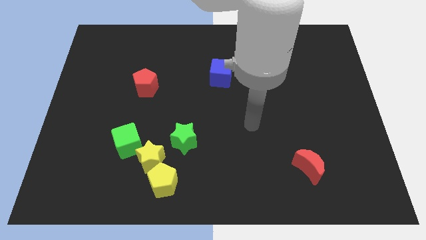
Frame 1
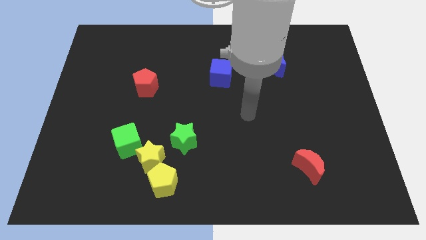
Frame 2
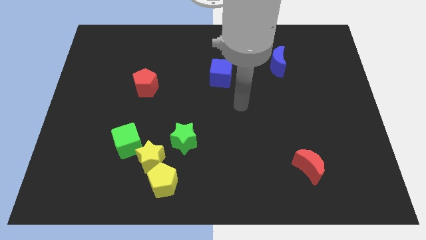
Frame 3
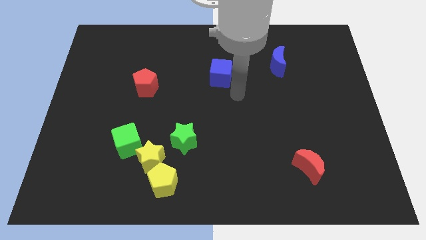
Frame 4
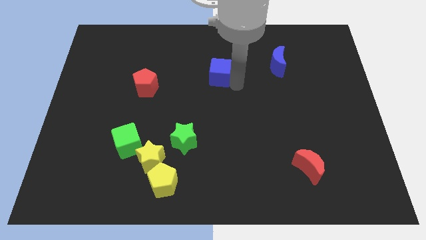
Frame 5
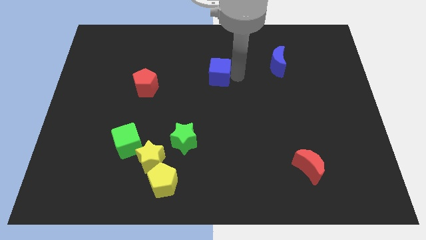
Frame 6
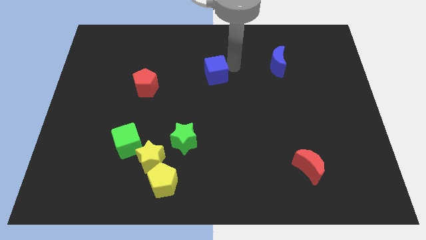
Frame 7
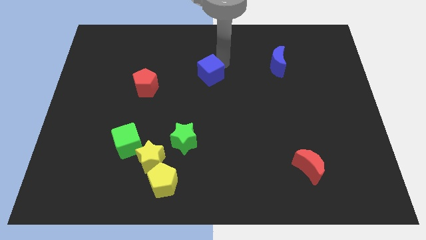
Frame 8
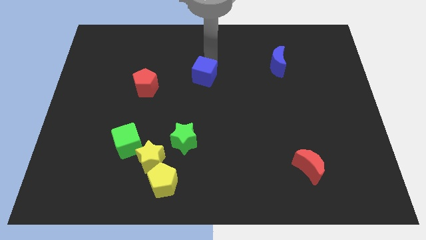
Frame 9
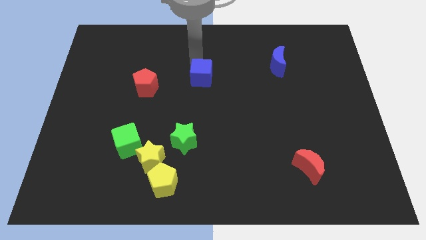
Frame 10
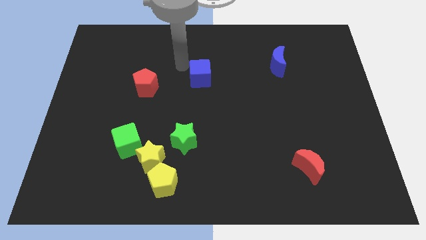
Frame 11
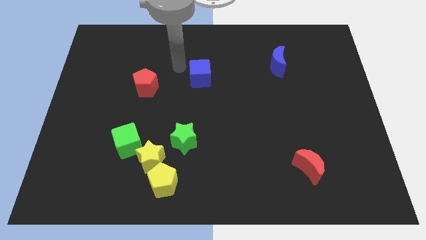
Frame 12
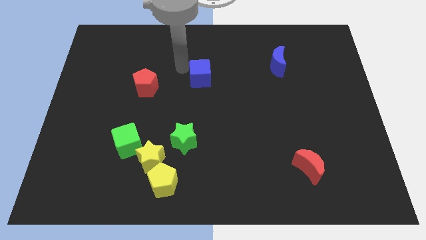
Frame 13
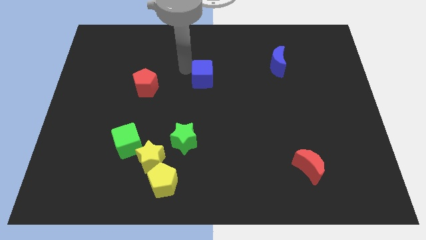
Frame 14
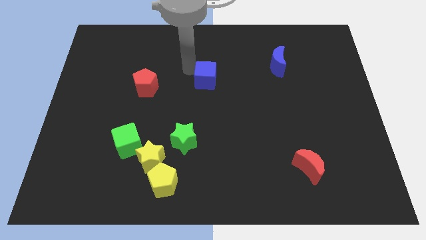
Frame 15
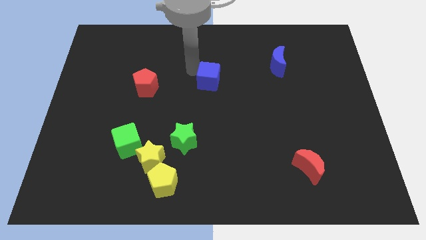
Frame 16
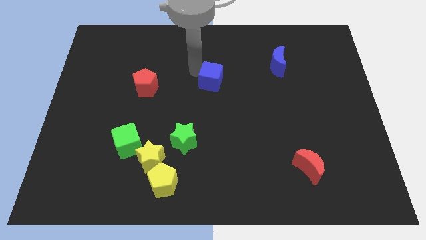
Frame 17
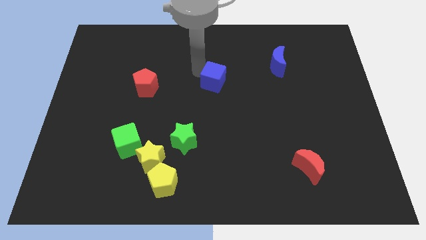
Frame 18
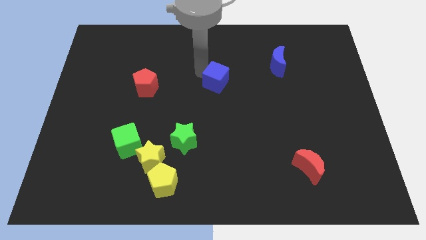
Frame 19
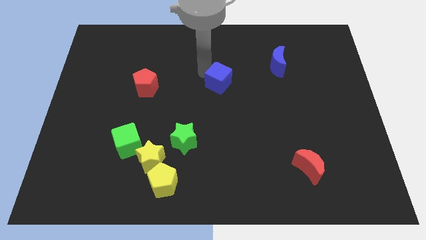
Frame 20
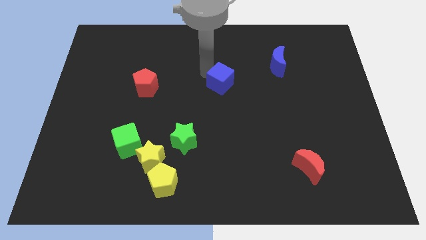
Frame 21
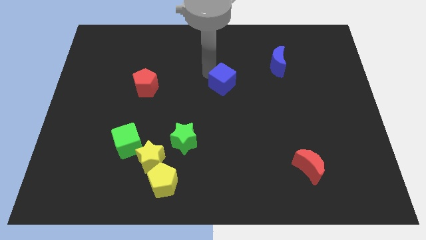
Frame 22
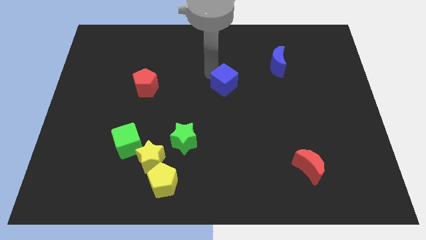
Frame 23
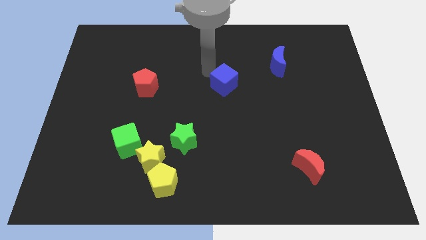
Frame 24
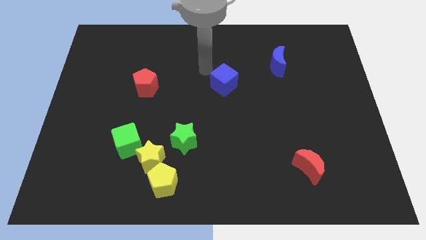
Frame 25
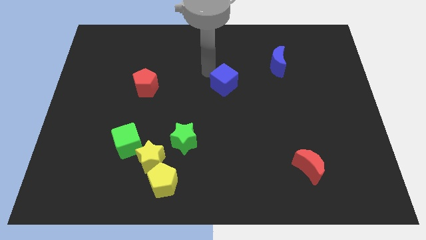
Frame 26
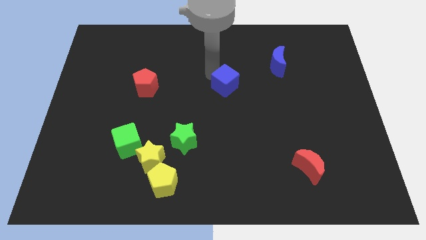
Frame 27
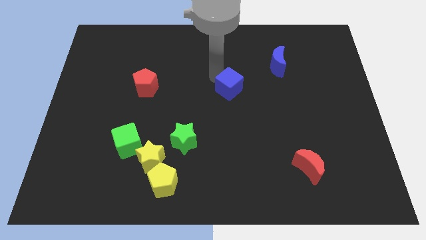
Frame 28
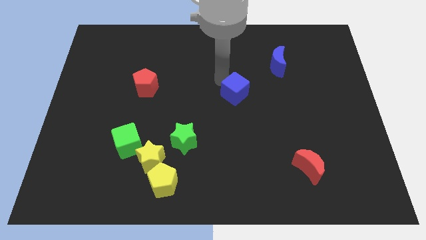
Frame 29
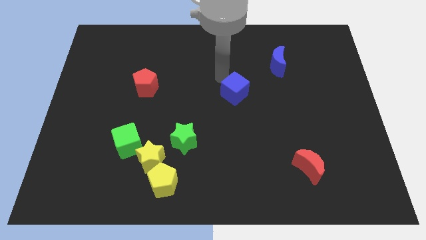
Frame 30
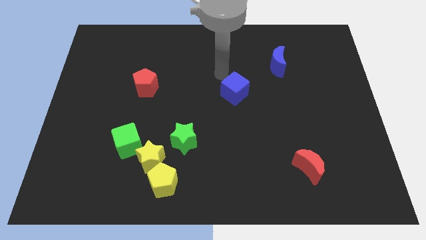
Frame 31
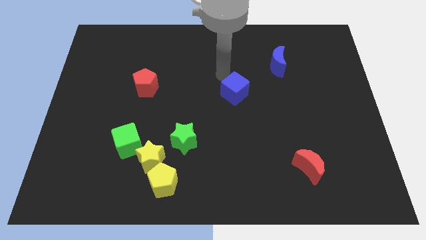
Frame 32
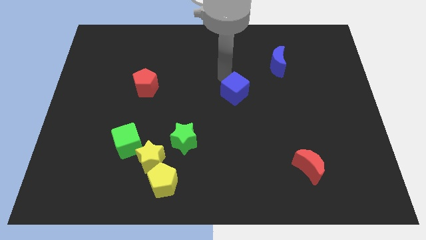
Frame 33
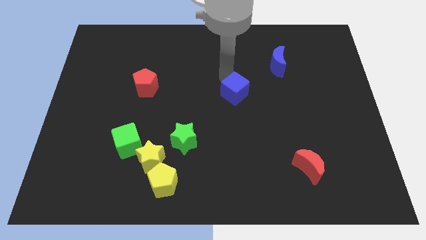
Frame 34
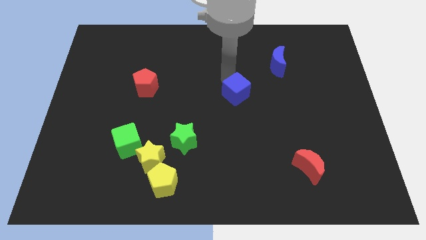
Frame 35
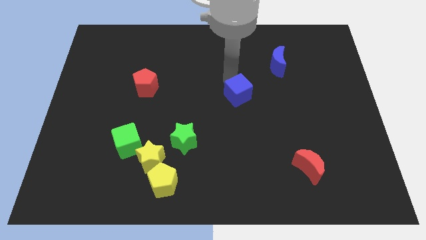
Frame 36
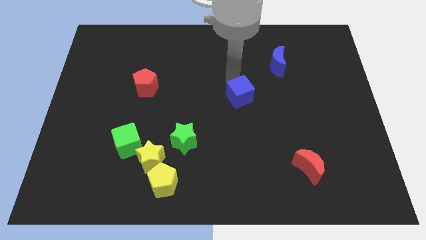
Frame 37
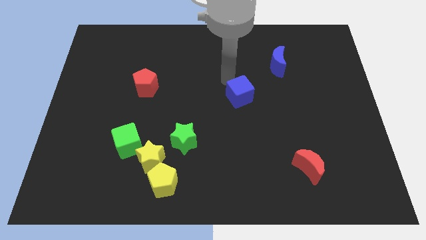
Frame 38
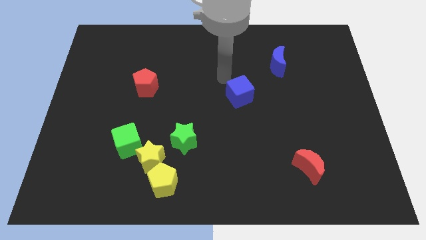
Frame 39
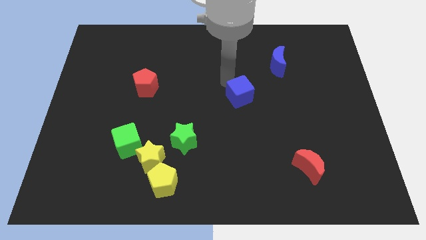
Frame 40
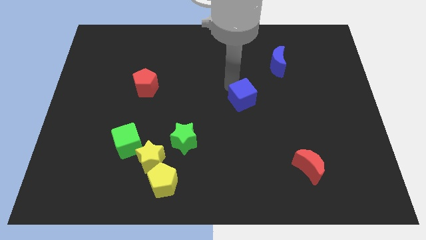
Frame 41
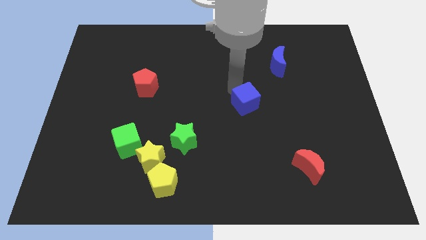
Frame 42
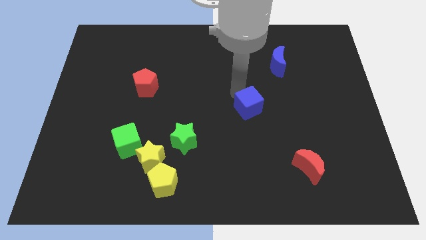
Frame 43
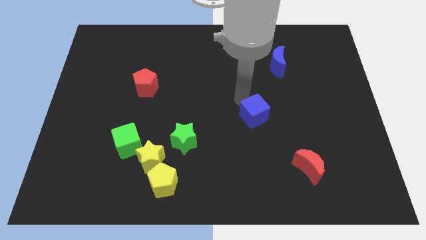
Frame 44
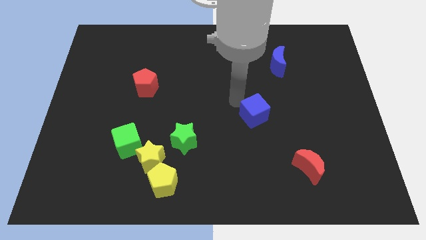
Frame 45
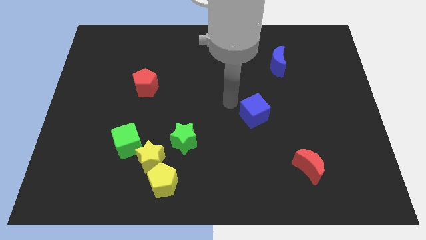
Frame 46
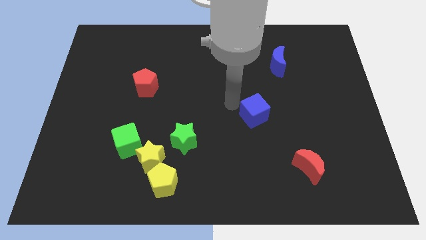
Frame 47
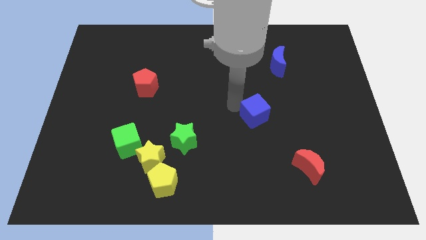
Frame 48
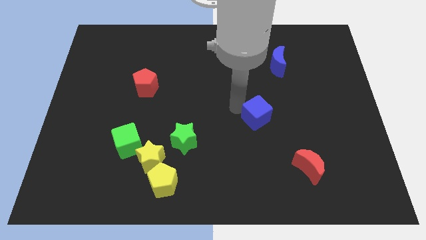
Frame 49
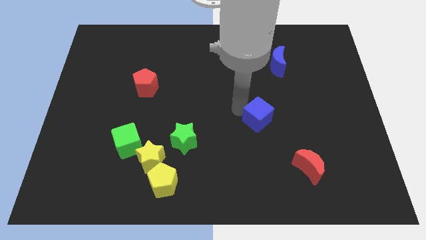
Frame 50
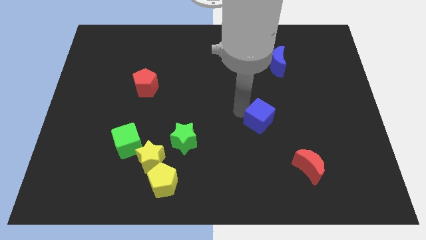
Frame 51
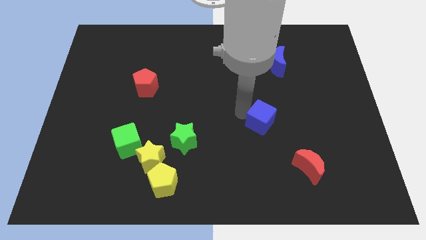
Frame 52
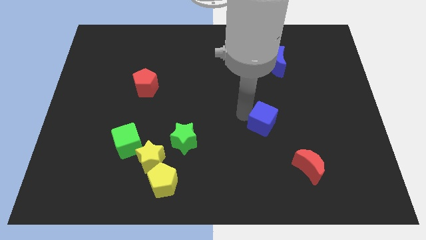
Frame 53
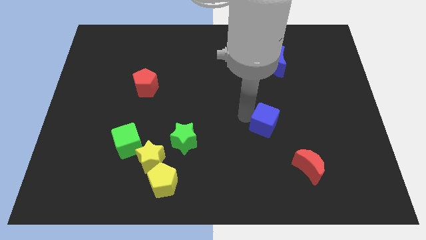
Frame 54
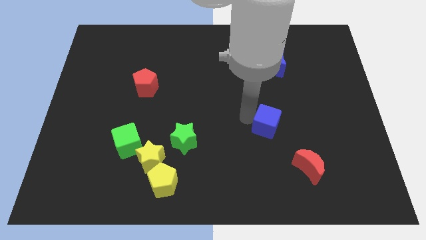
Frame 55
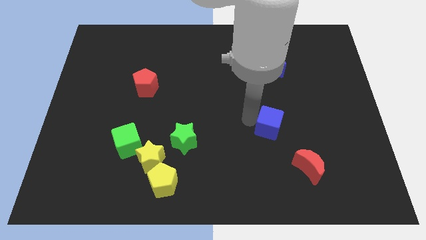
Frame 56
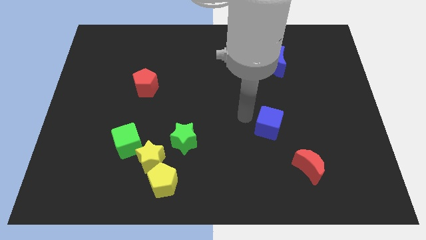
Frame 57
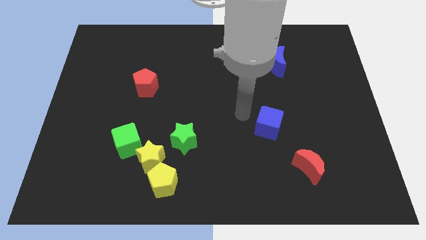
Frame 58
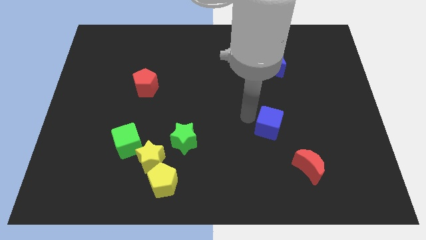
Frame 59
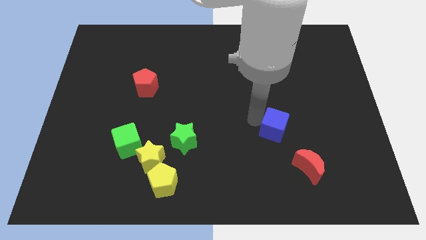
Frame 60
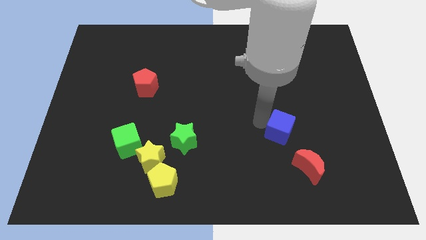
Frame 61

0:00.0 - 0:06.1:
slide the blue cube down and then right

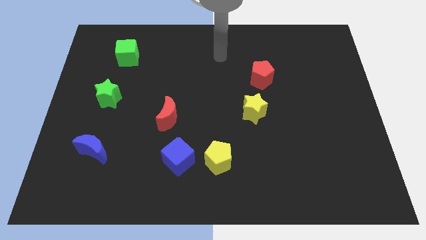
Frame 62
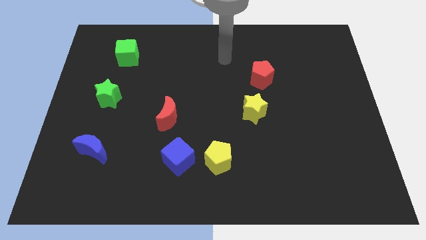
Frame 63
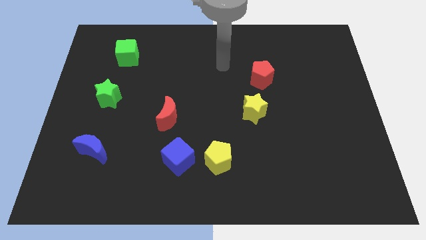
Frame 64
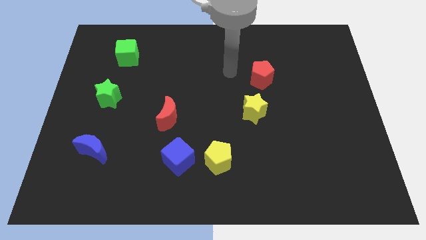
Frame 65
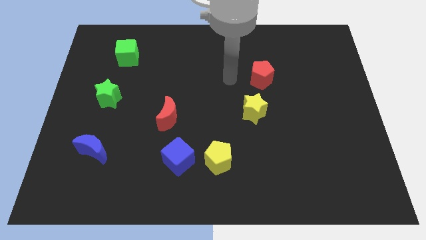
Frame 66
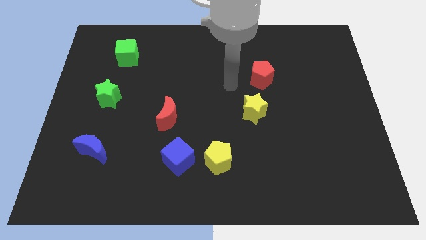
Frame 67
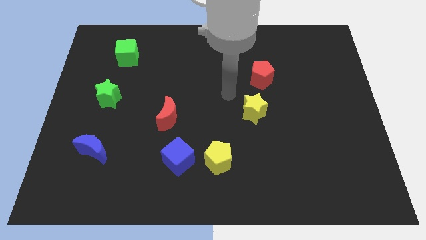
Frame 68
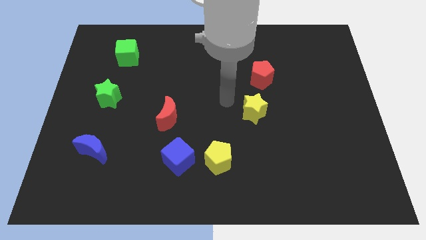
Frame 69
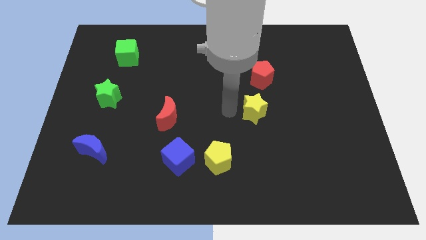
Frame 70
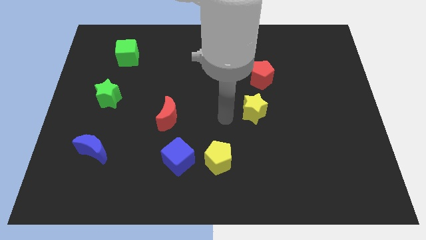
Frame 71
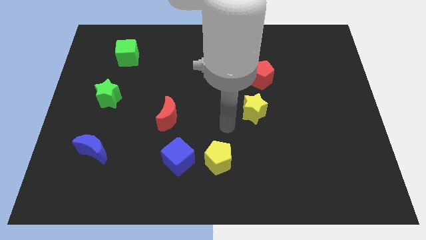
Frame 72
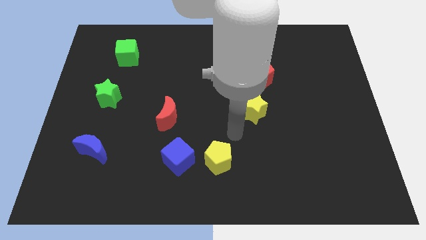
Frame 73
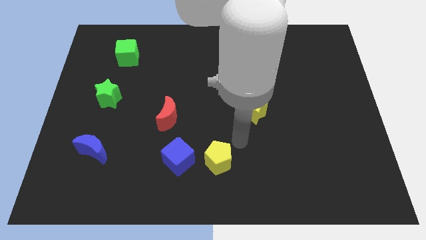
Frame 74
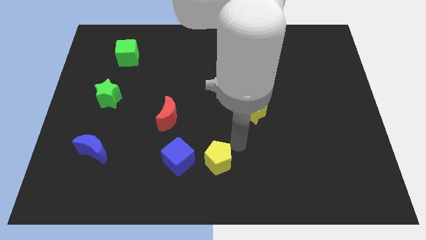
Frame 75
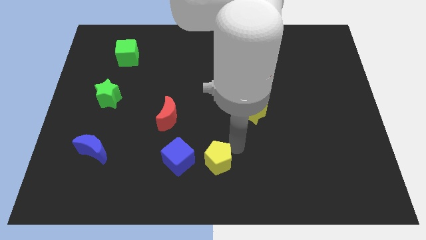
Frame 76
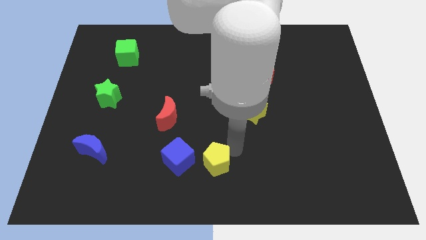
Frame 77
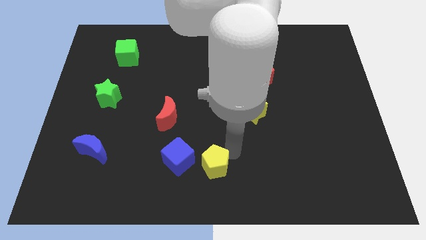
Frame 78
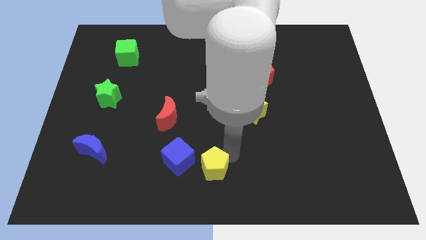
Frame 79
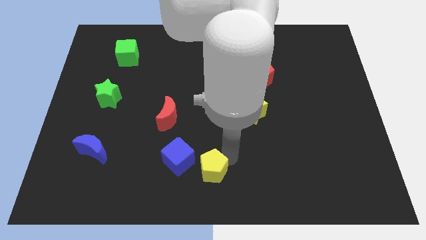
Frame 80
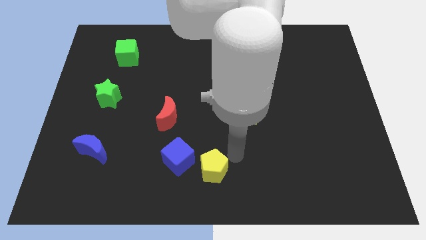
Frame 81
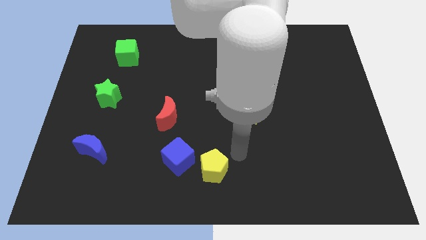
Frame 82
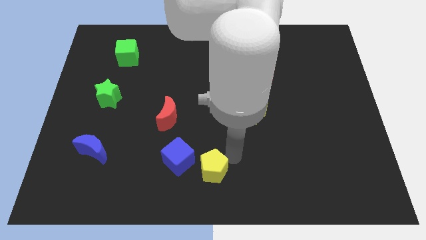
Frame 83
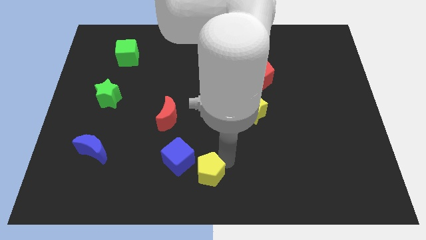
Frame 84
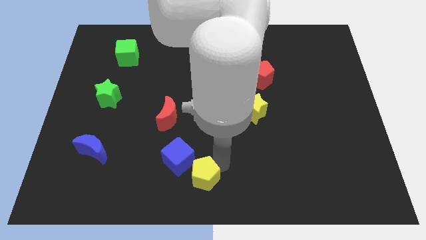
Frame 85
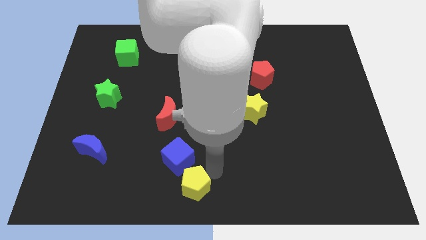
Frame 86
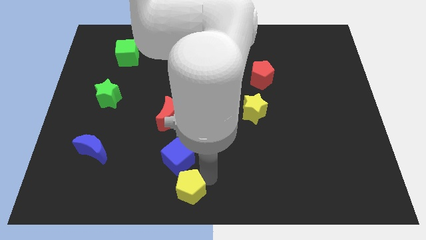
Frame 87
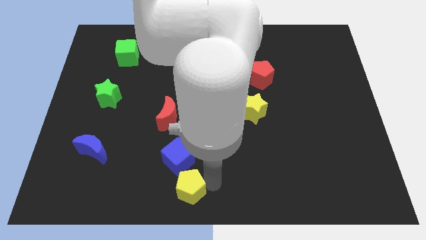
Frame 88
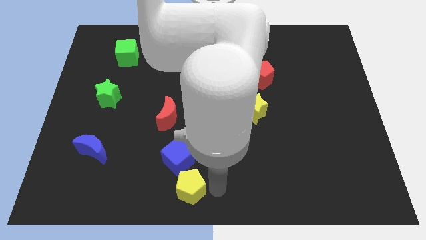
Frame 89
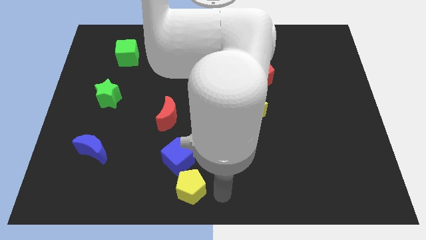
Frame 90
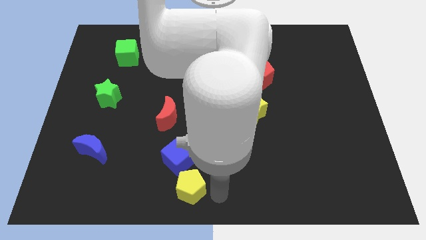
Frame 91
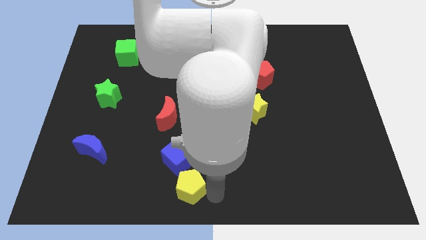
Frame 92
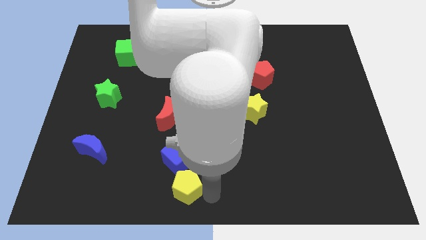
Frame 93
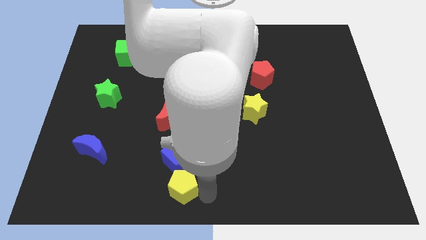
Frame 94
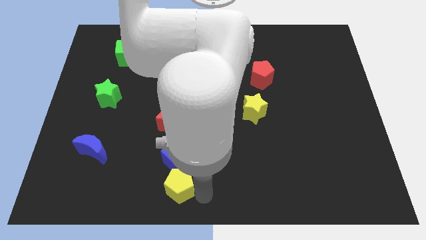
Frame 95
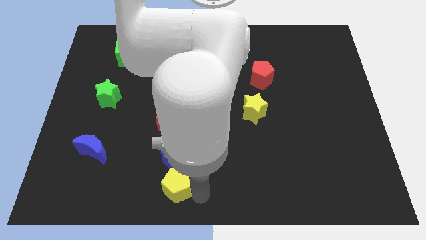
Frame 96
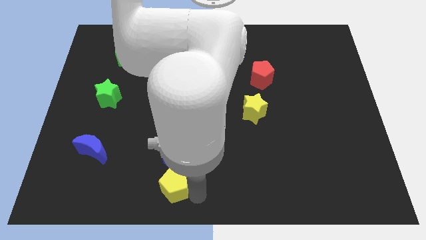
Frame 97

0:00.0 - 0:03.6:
push the yellow pentagon left a little bit
